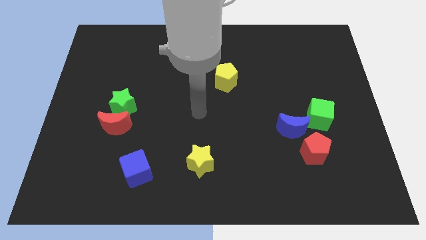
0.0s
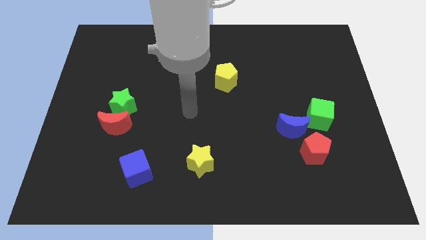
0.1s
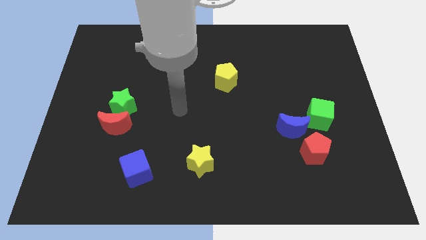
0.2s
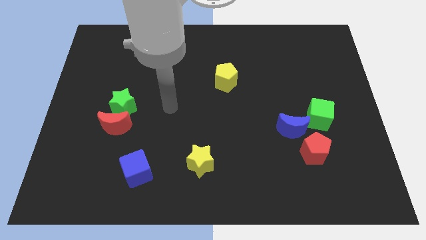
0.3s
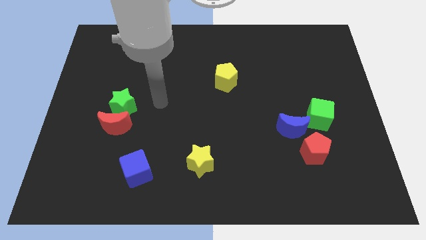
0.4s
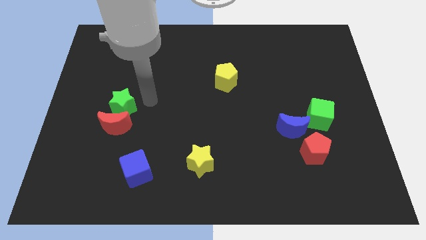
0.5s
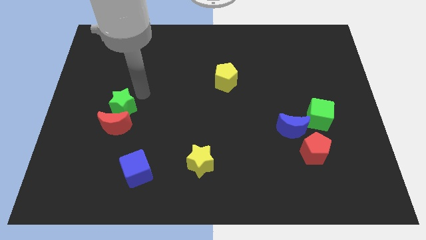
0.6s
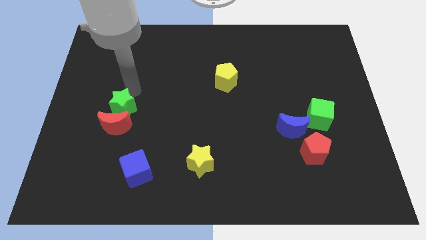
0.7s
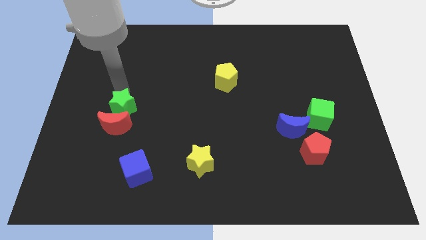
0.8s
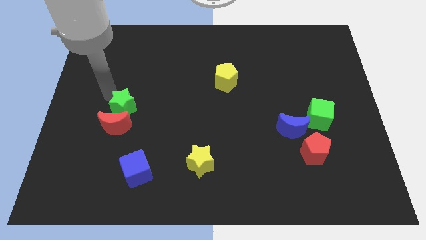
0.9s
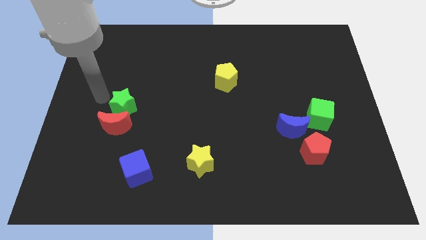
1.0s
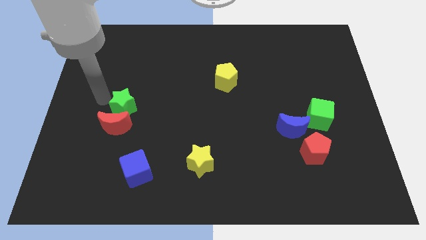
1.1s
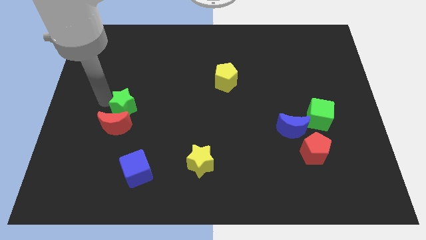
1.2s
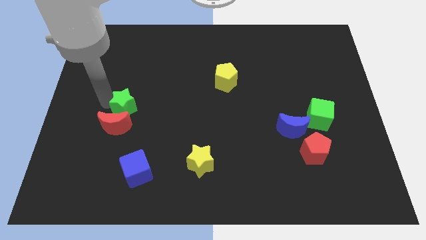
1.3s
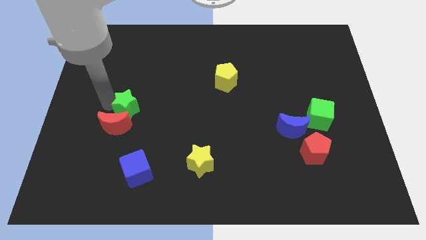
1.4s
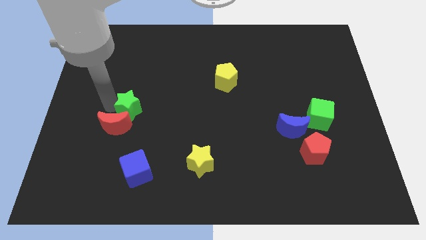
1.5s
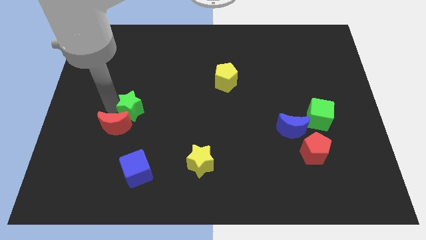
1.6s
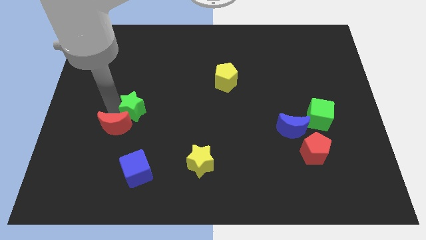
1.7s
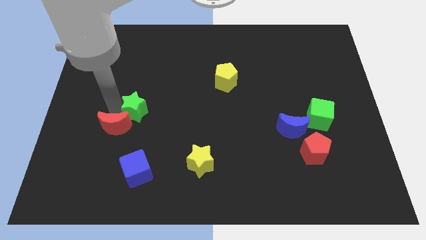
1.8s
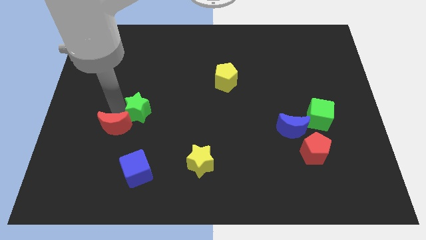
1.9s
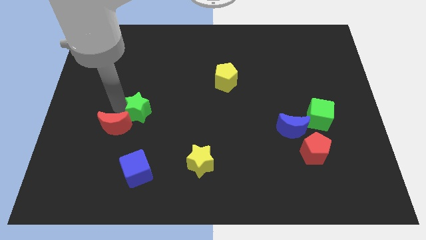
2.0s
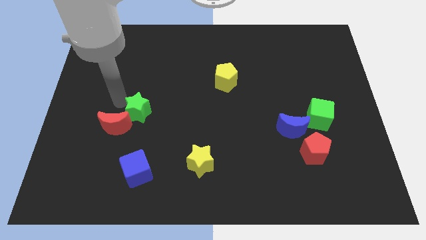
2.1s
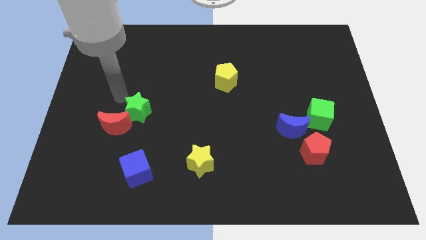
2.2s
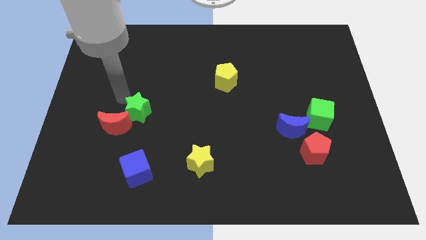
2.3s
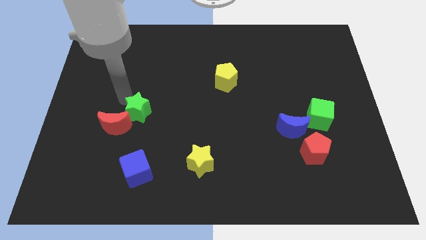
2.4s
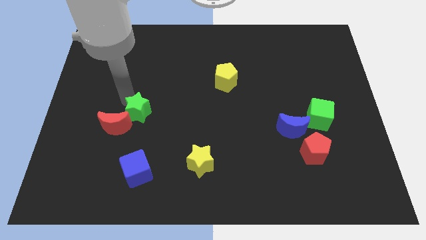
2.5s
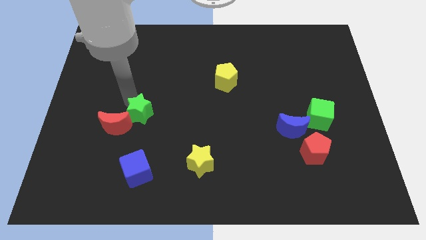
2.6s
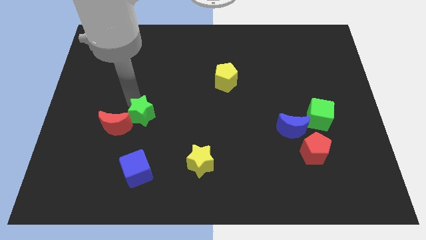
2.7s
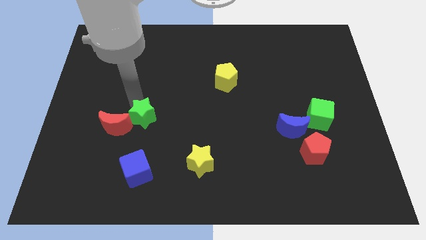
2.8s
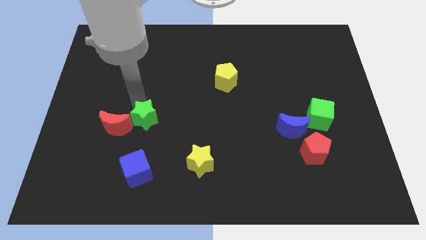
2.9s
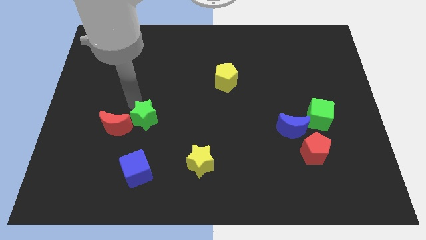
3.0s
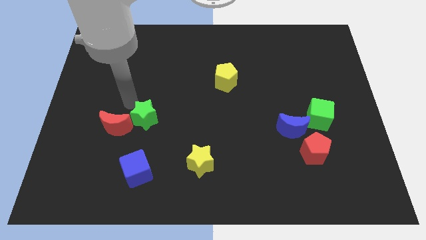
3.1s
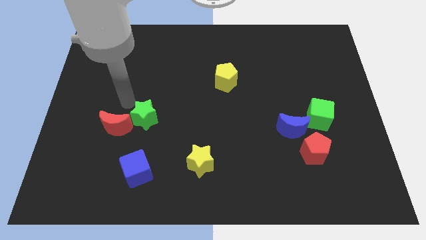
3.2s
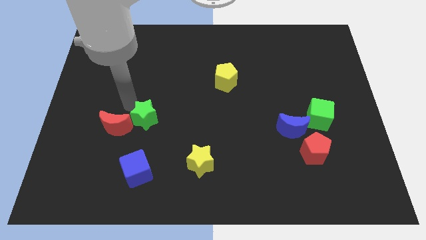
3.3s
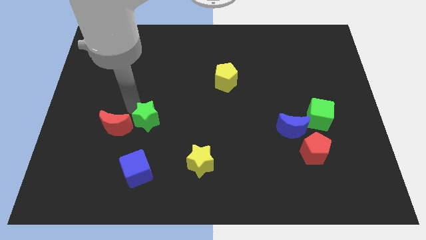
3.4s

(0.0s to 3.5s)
slightly move the green star diagonally down and to the right

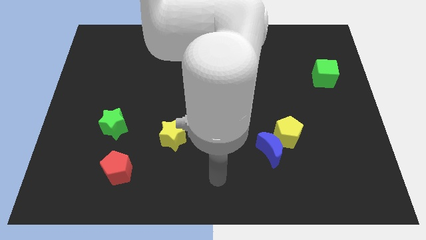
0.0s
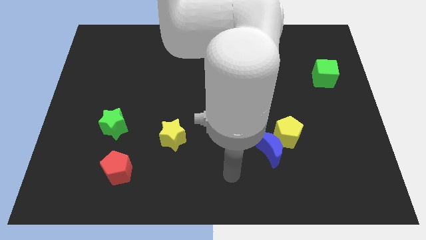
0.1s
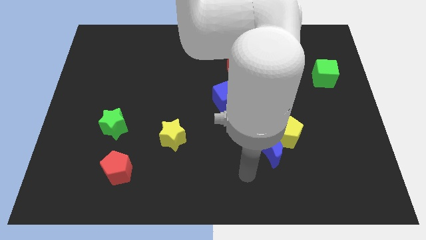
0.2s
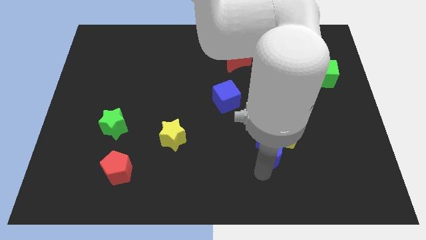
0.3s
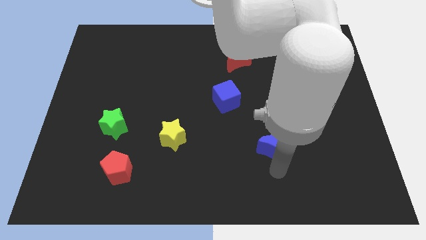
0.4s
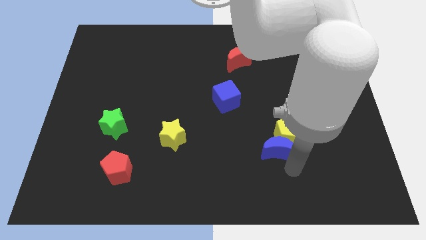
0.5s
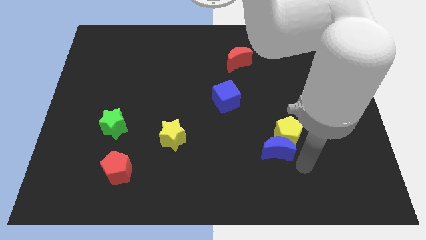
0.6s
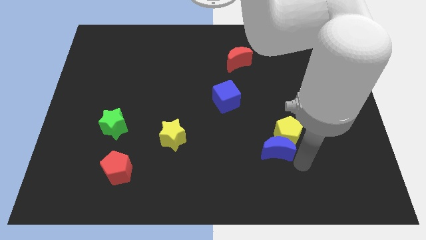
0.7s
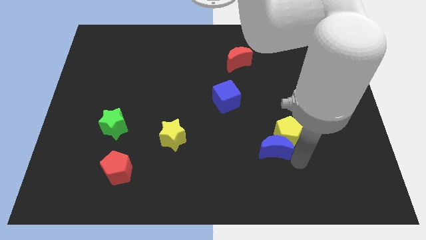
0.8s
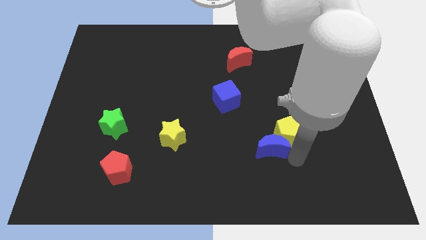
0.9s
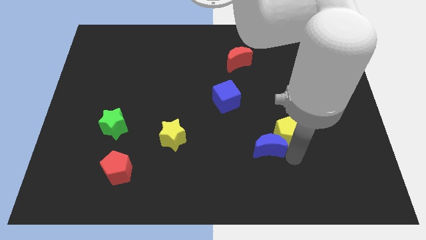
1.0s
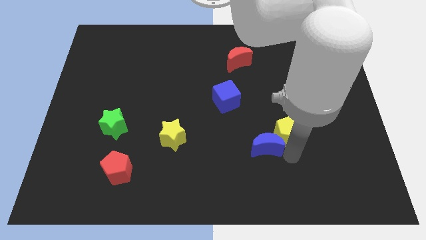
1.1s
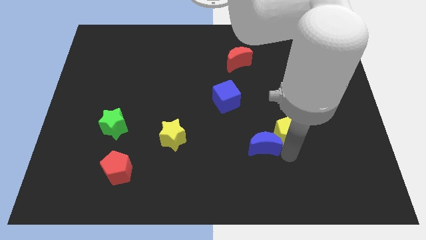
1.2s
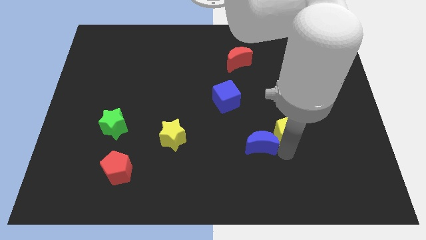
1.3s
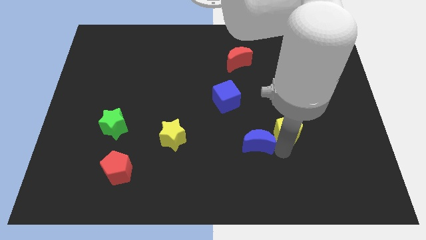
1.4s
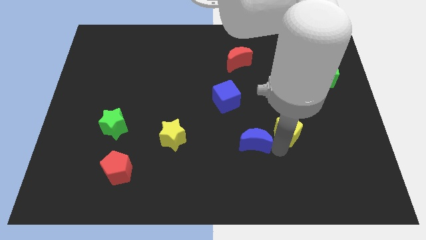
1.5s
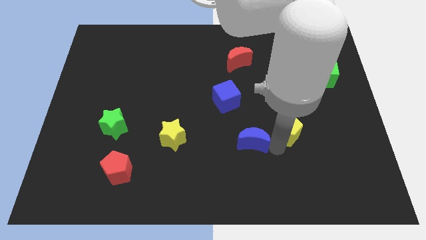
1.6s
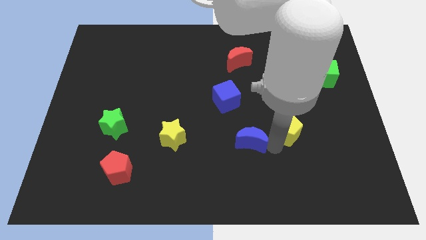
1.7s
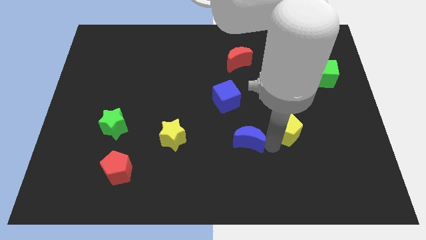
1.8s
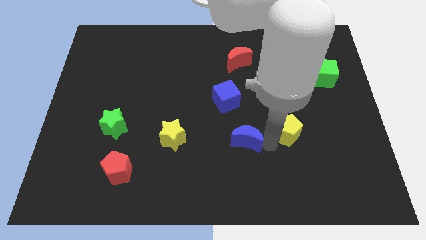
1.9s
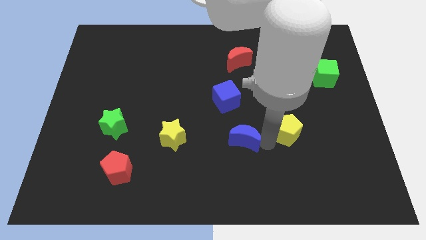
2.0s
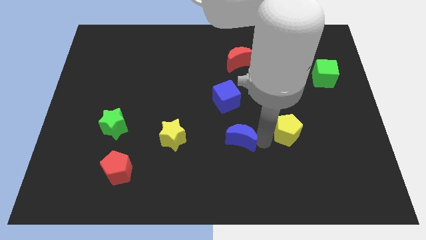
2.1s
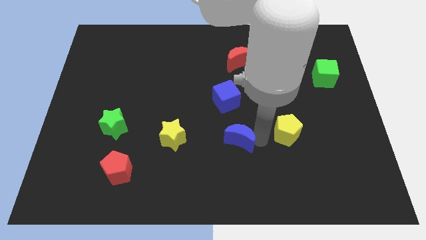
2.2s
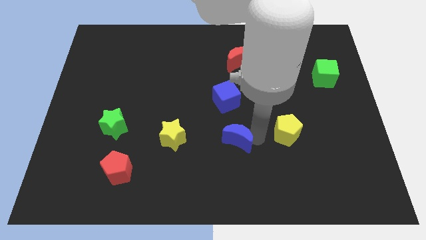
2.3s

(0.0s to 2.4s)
push the blue moon upwards and to the left diagonally somewhat

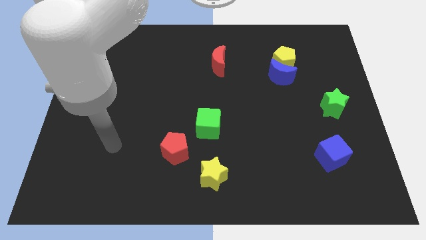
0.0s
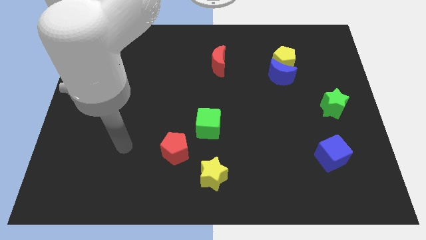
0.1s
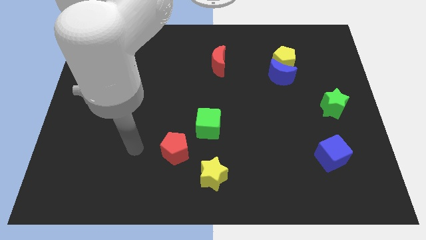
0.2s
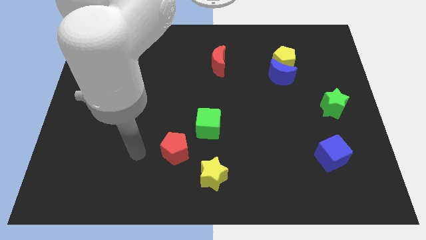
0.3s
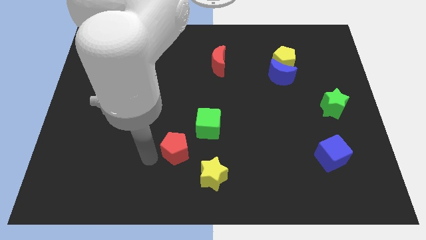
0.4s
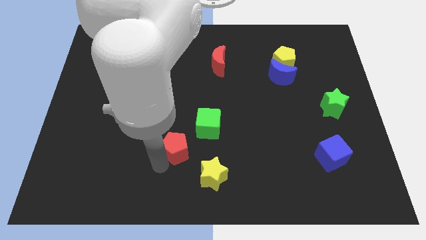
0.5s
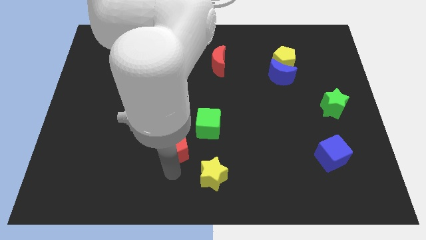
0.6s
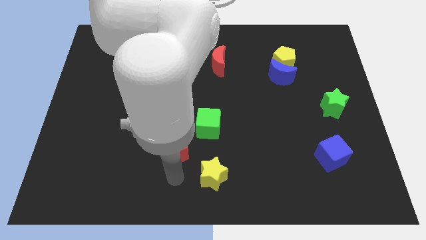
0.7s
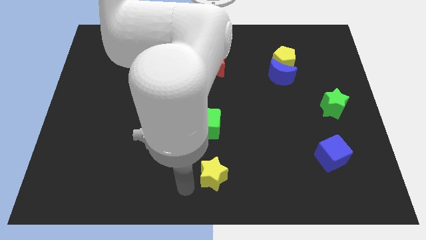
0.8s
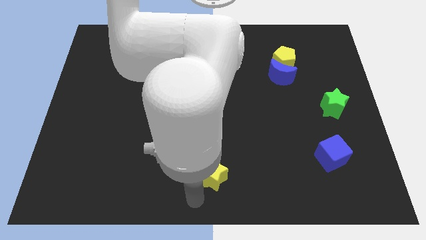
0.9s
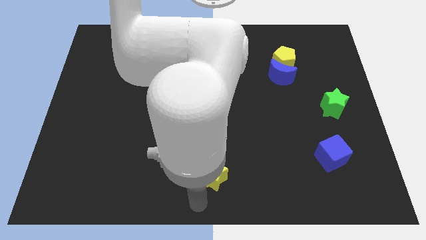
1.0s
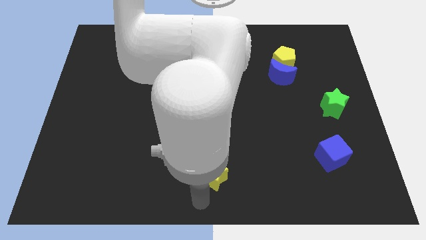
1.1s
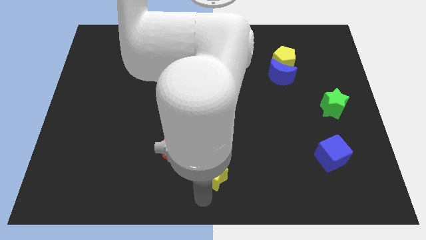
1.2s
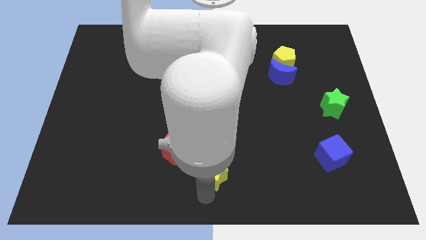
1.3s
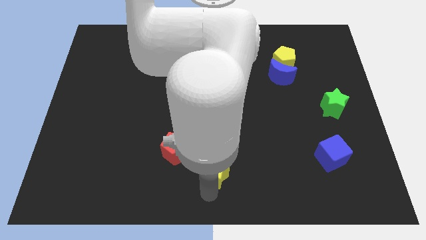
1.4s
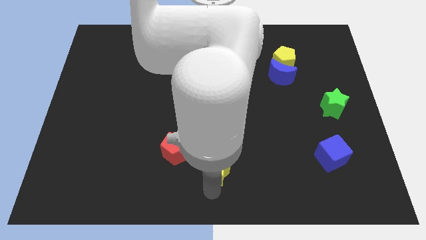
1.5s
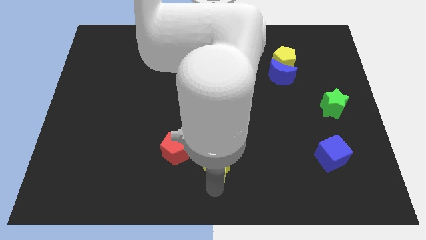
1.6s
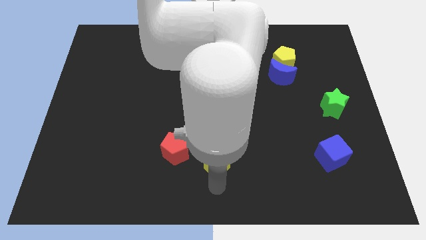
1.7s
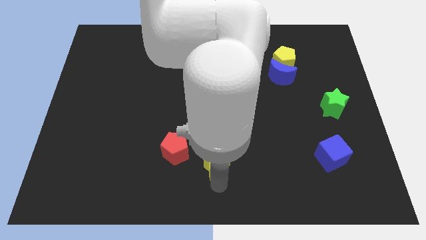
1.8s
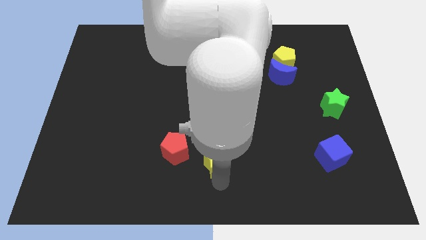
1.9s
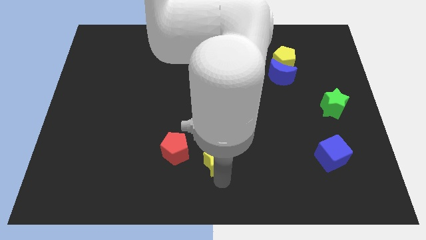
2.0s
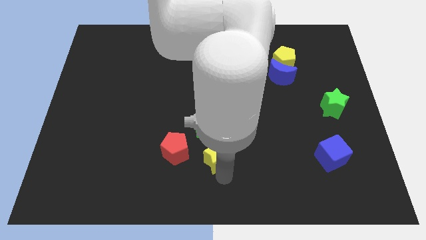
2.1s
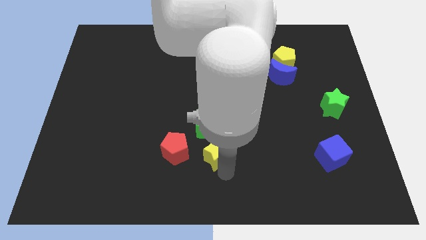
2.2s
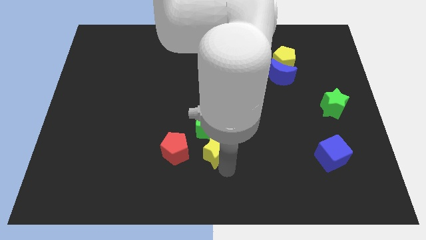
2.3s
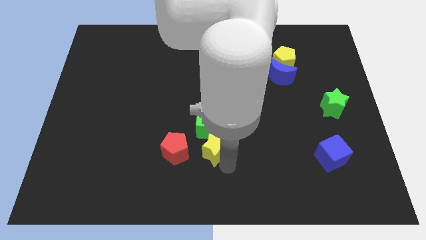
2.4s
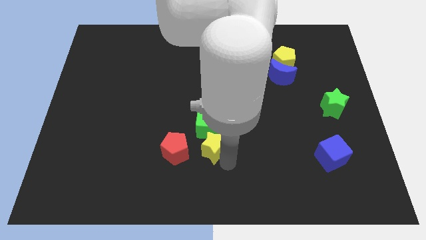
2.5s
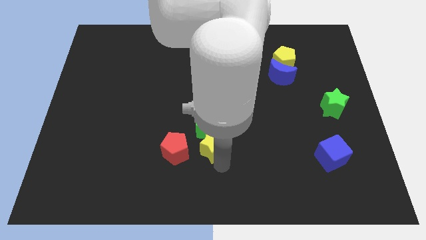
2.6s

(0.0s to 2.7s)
slightly slide the yellow star upwards
